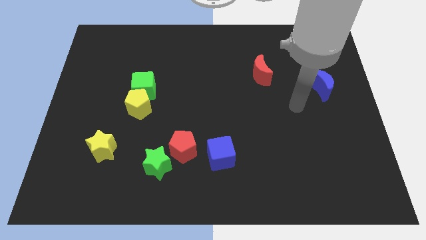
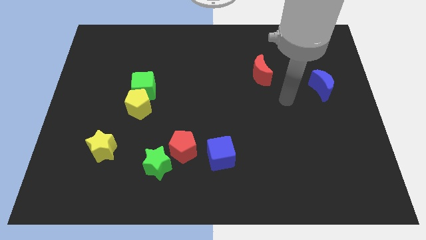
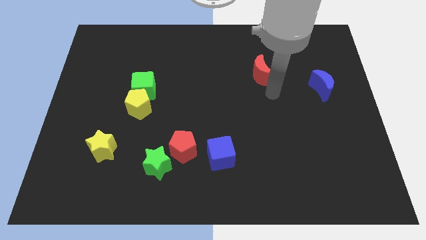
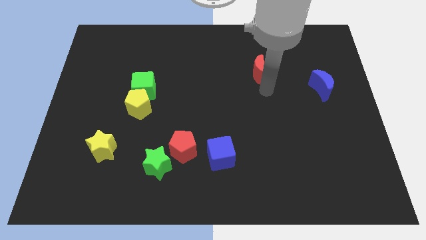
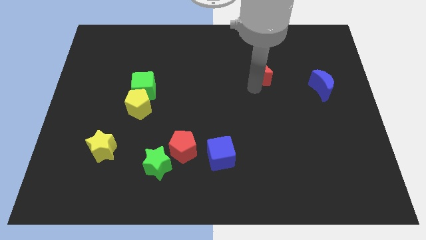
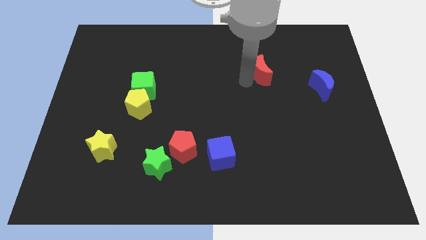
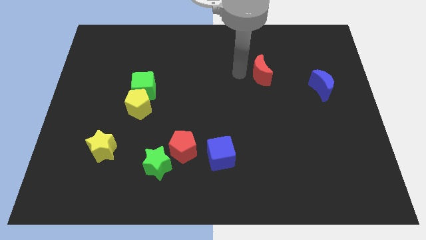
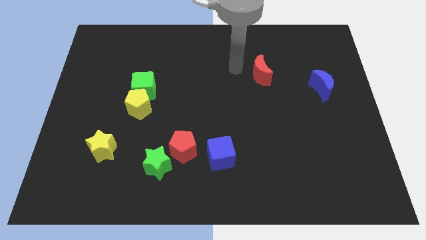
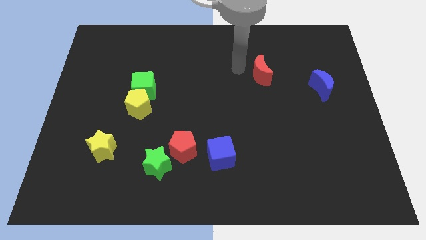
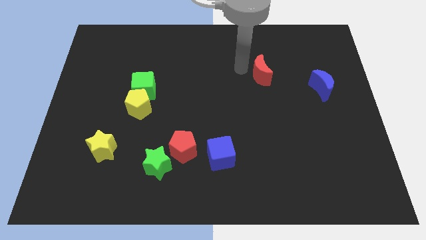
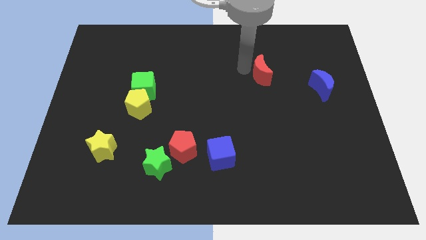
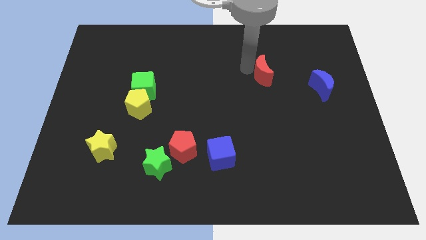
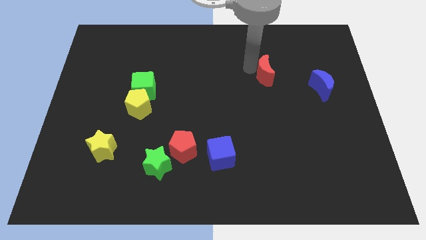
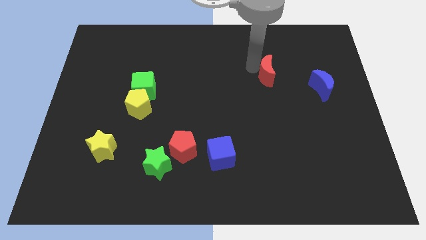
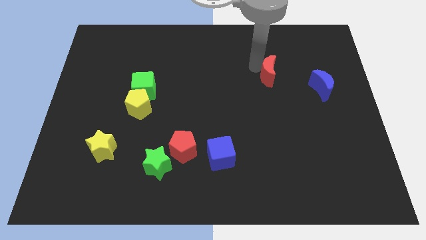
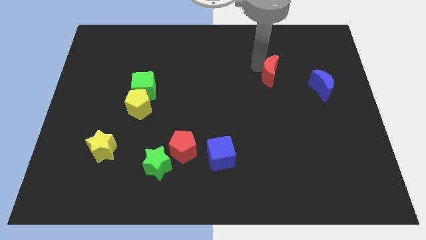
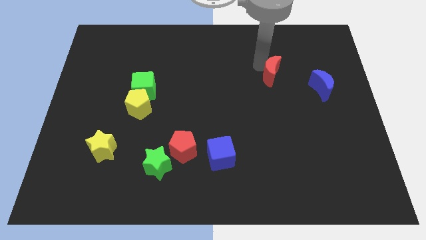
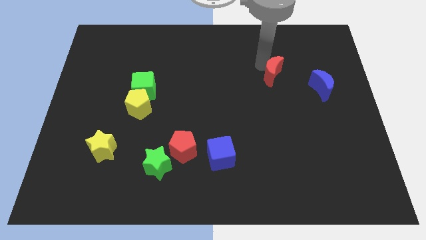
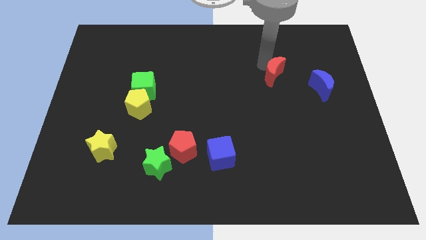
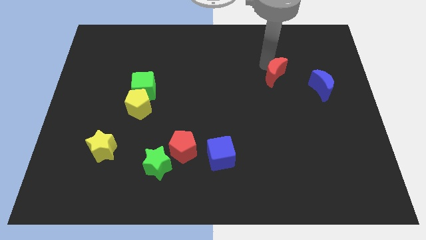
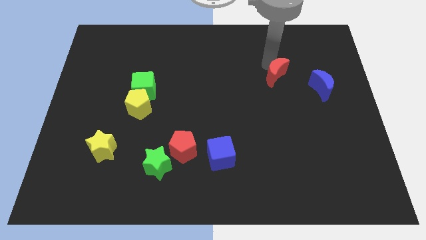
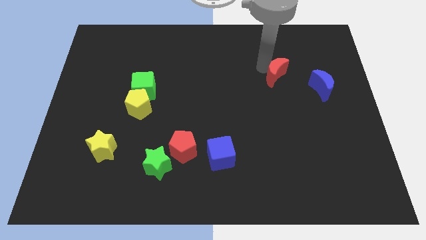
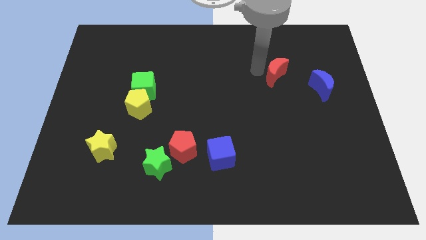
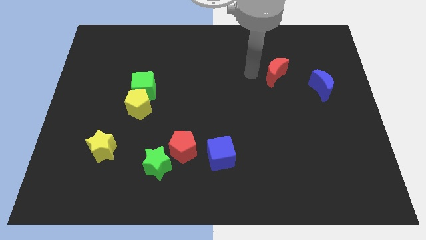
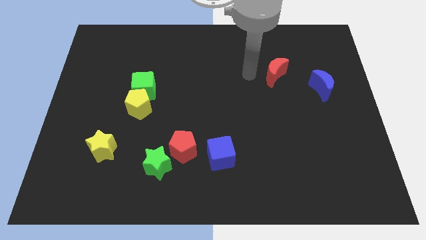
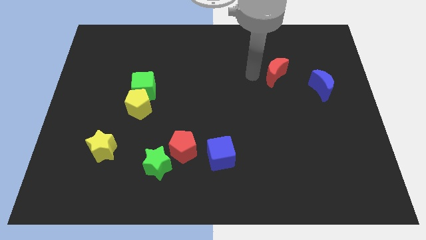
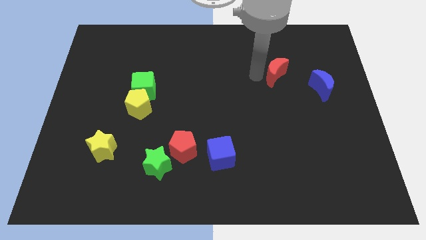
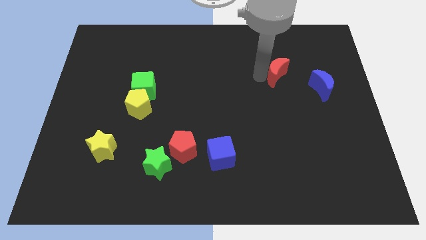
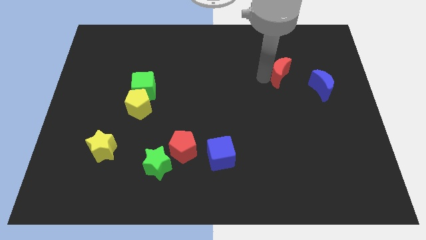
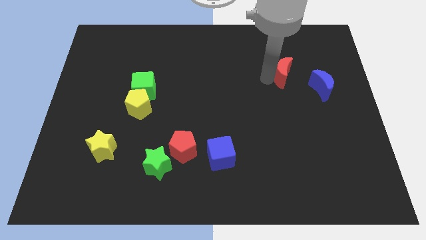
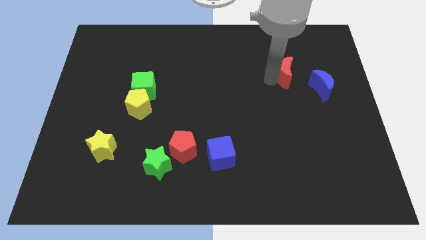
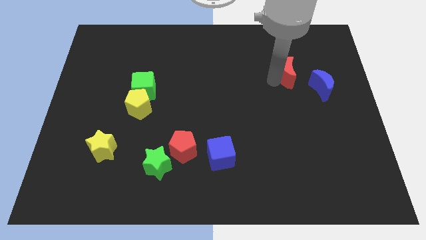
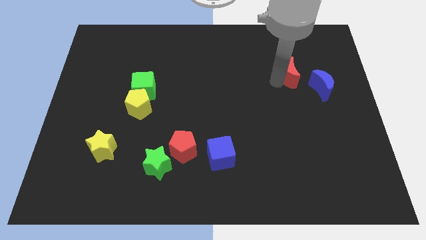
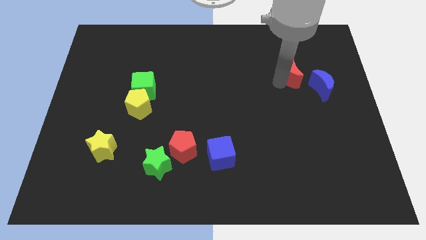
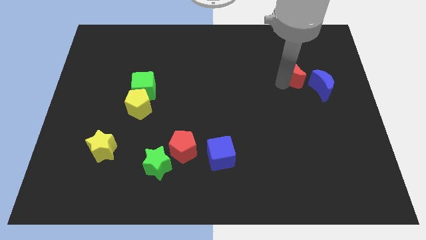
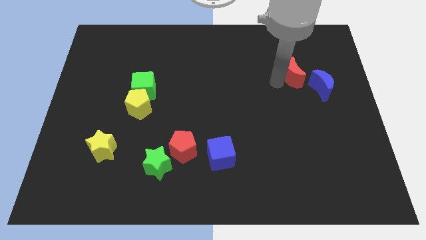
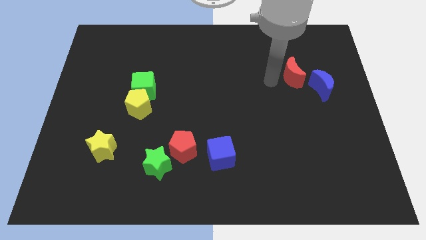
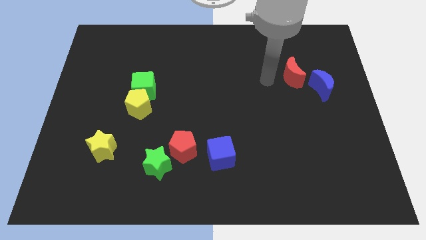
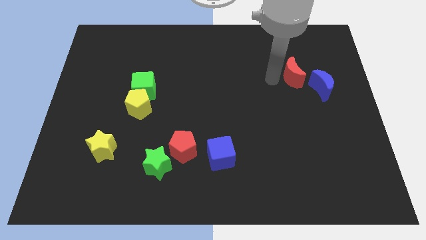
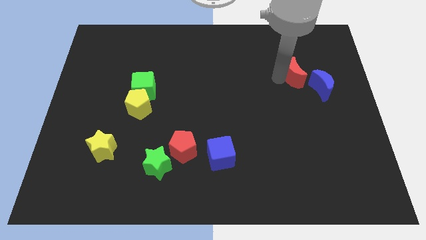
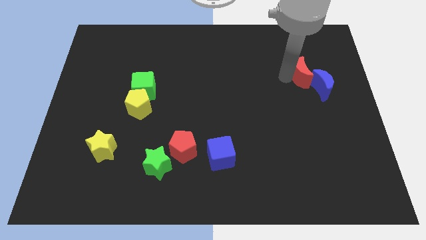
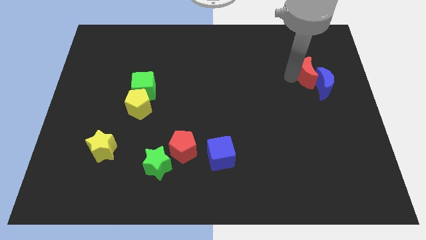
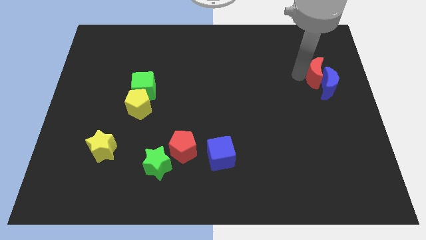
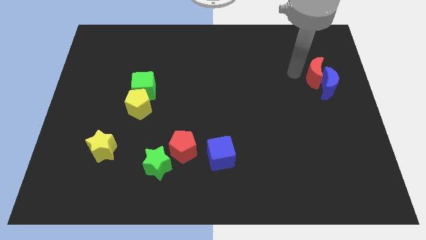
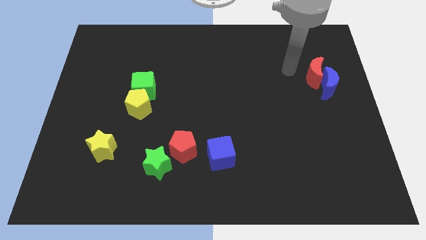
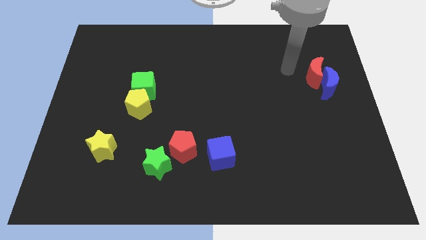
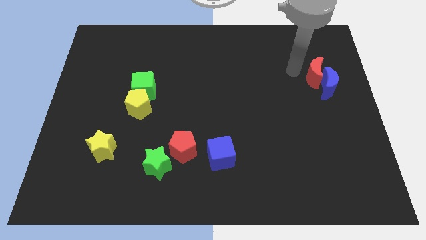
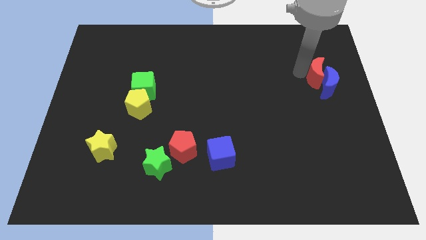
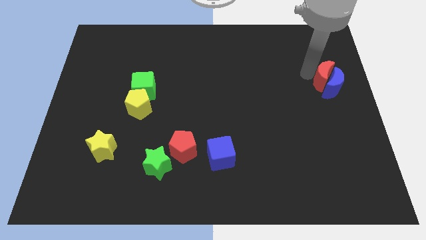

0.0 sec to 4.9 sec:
put the red moon to the right side

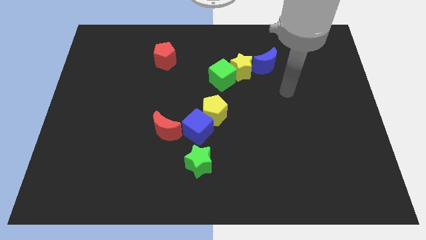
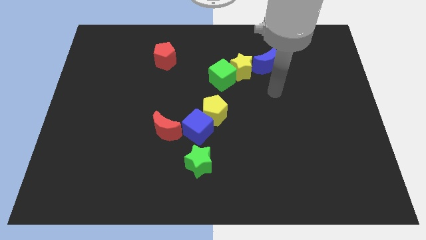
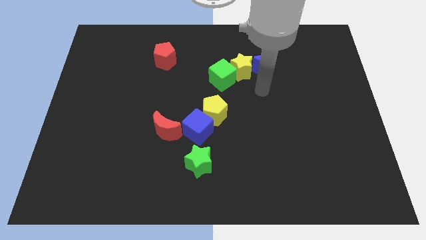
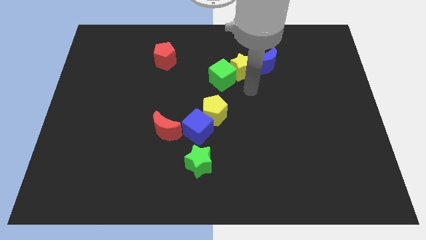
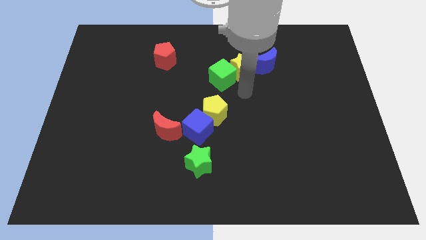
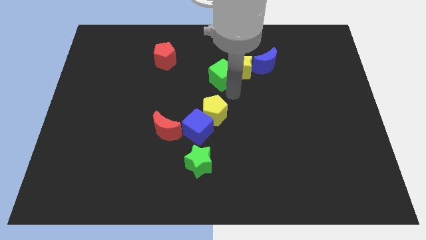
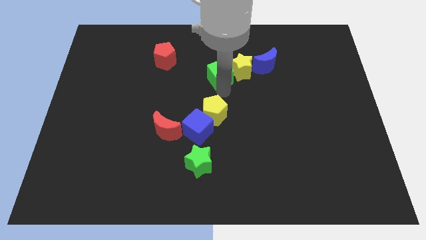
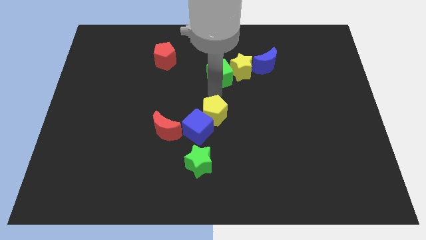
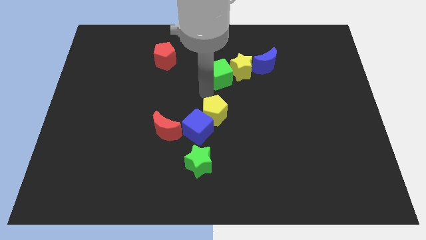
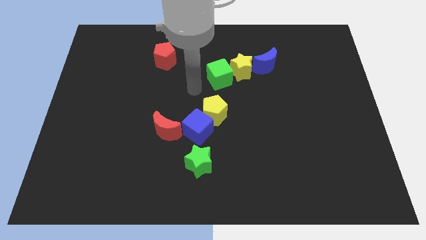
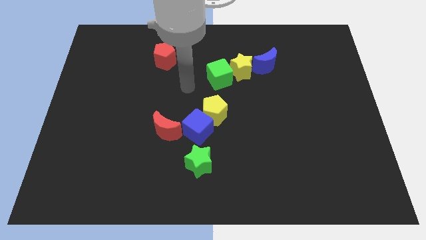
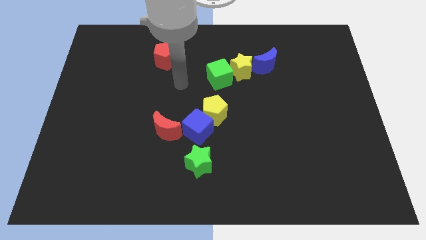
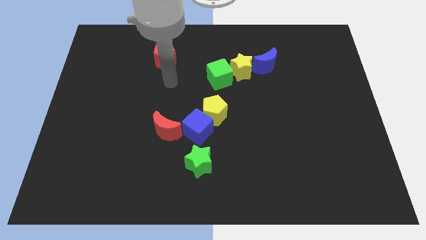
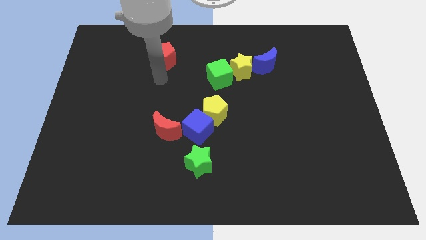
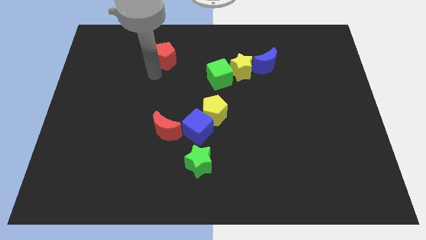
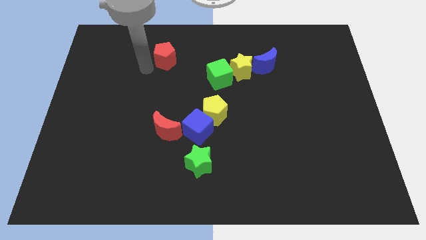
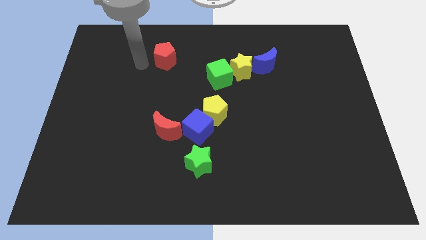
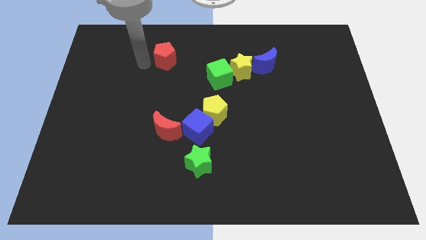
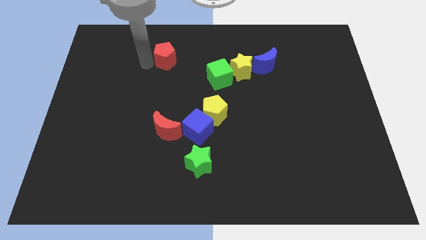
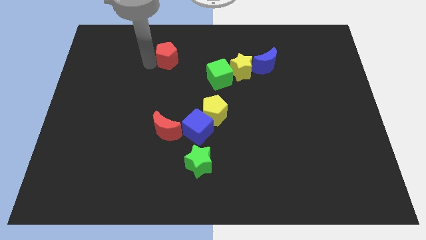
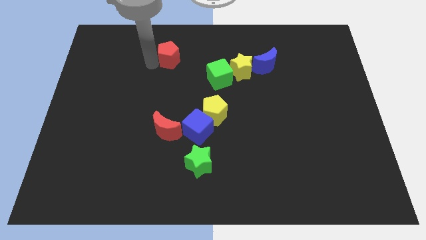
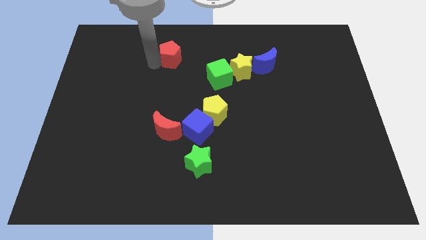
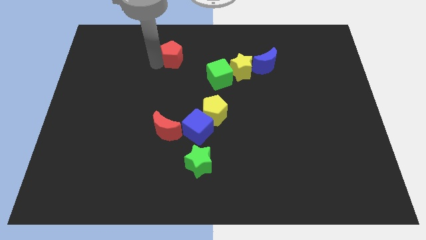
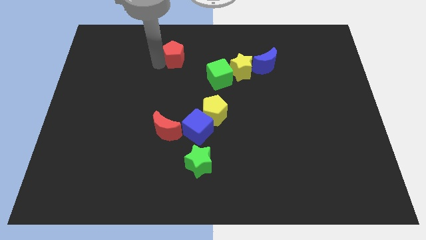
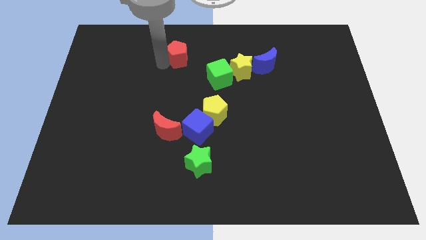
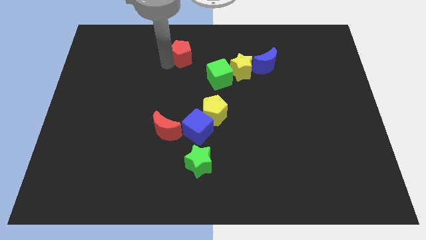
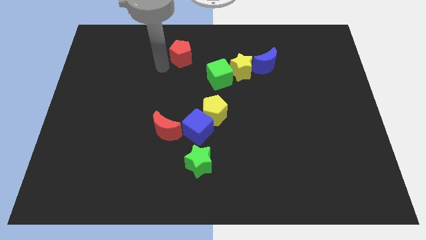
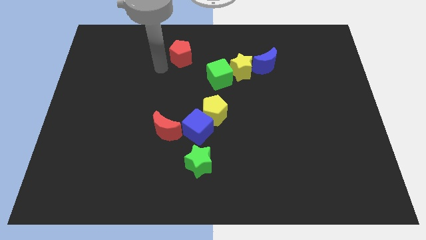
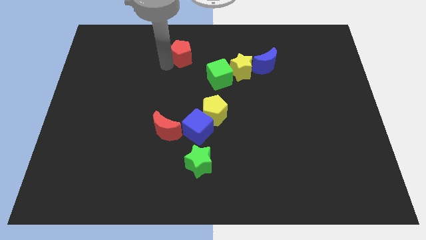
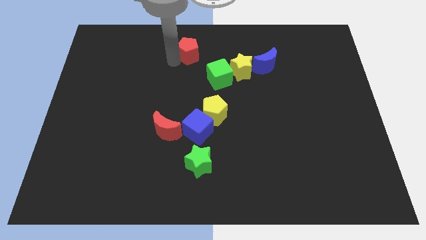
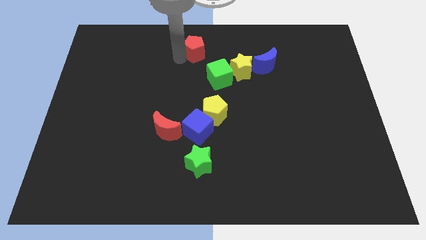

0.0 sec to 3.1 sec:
slide the red pentagon to the top
